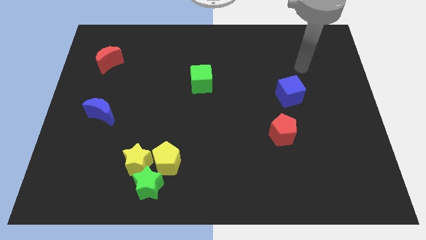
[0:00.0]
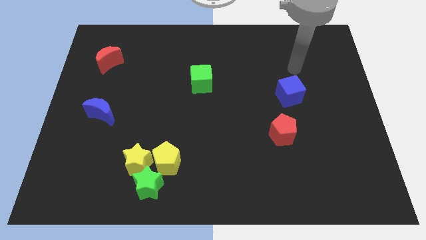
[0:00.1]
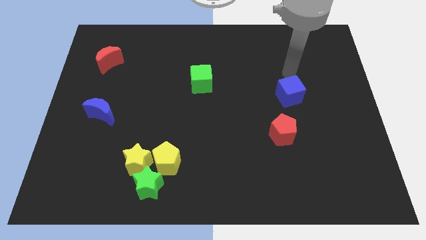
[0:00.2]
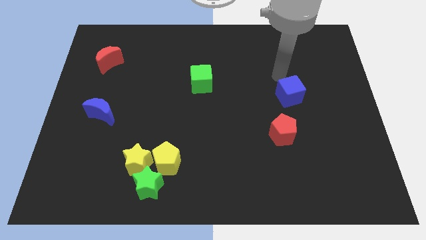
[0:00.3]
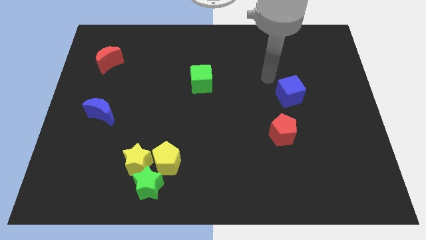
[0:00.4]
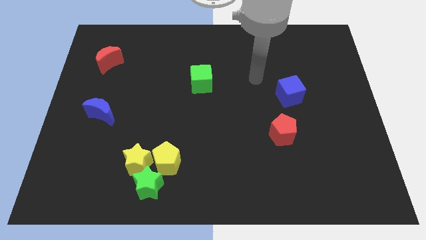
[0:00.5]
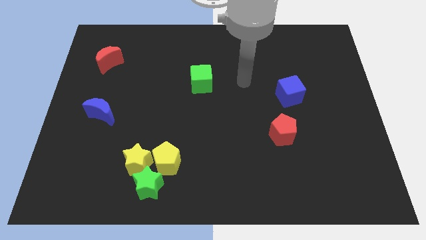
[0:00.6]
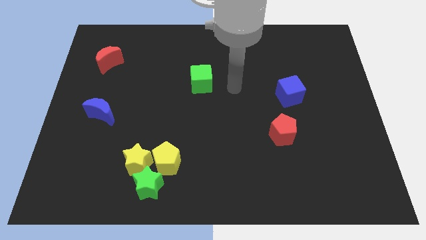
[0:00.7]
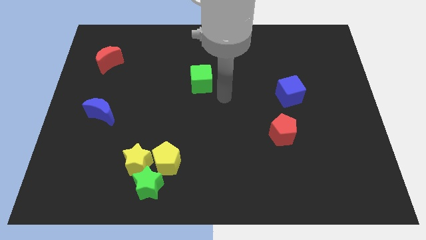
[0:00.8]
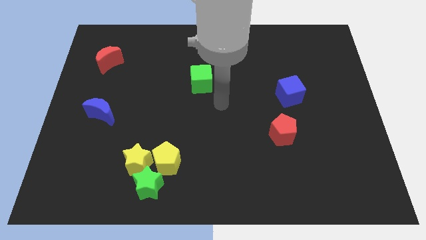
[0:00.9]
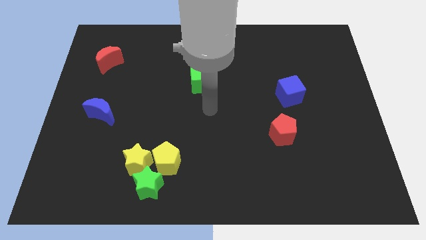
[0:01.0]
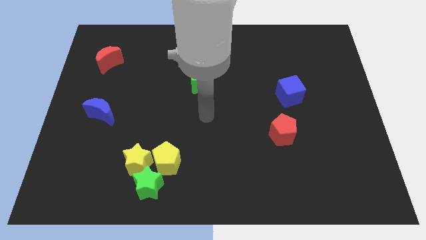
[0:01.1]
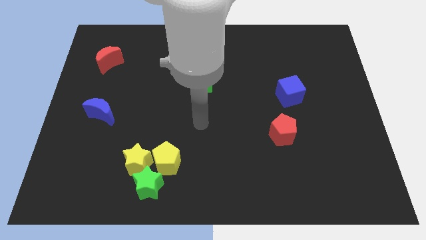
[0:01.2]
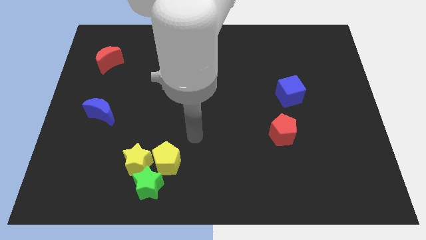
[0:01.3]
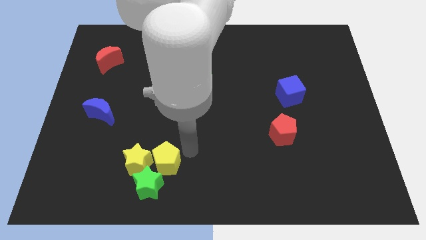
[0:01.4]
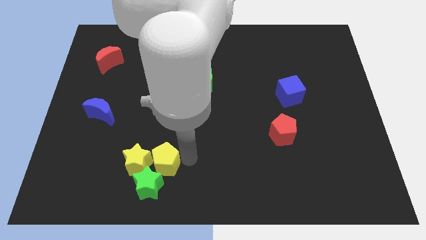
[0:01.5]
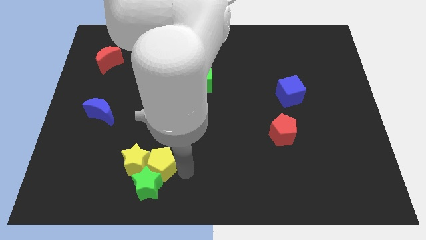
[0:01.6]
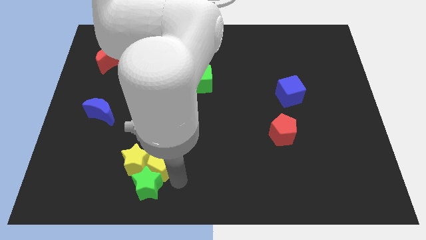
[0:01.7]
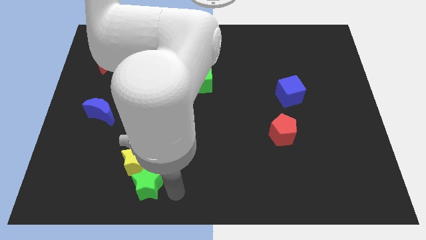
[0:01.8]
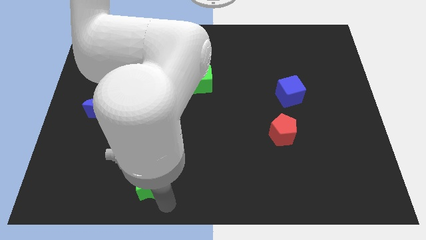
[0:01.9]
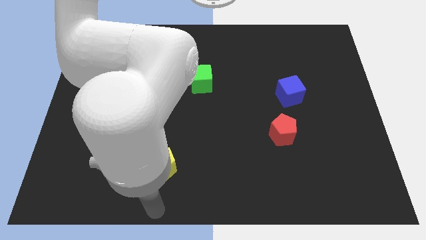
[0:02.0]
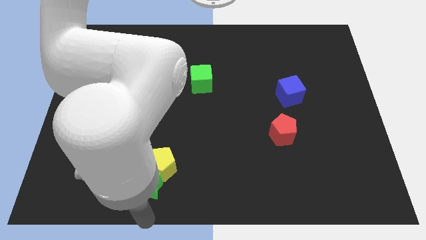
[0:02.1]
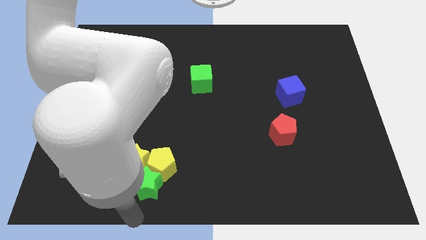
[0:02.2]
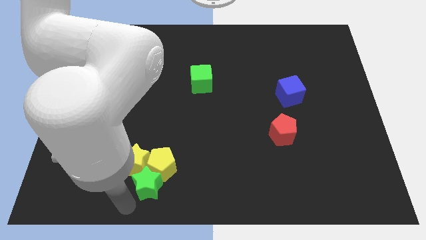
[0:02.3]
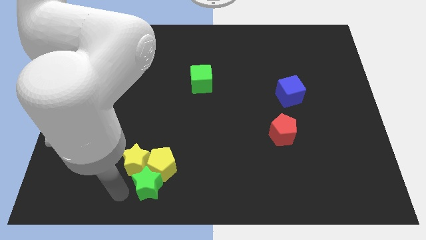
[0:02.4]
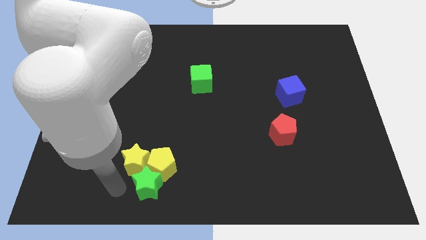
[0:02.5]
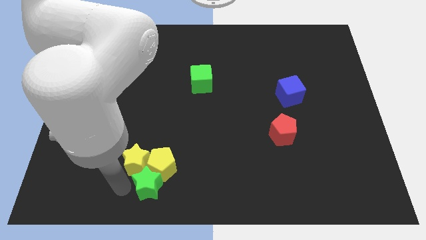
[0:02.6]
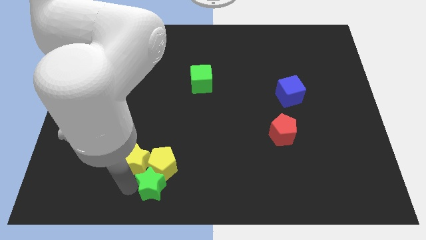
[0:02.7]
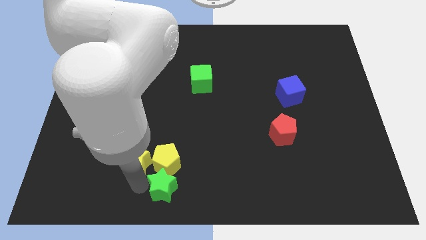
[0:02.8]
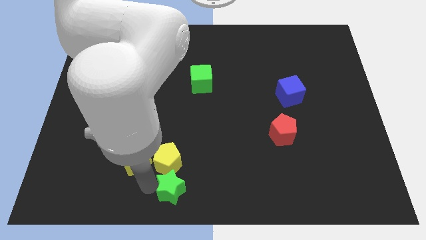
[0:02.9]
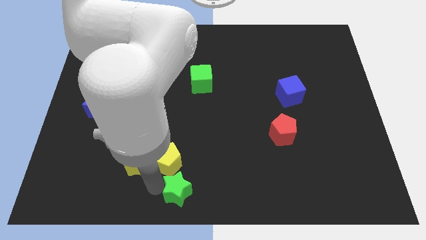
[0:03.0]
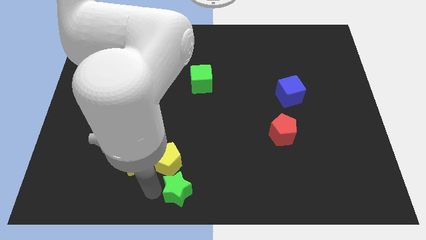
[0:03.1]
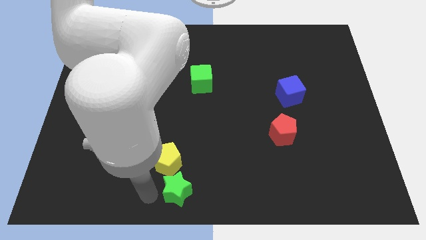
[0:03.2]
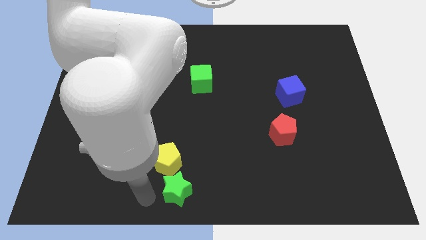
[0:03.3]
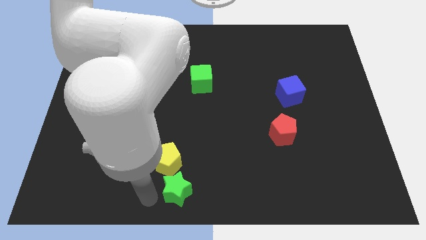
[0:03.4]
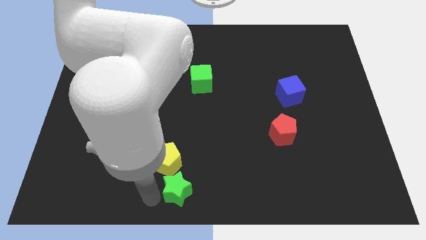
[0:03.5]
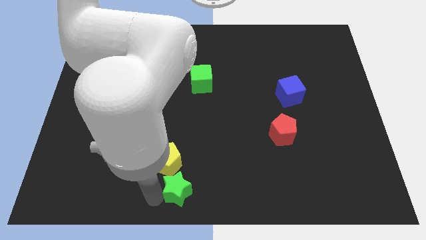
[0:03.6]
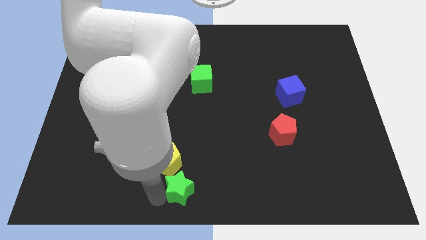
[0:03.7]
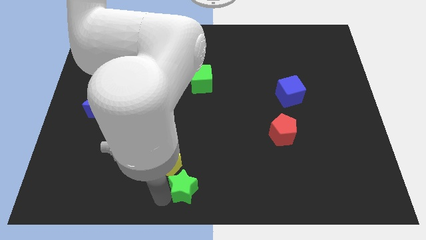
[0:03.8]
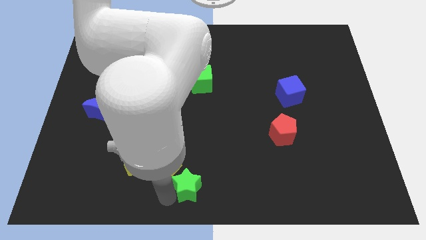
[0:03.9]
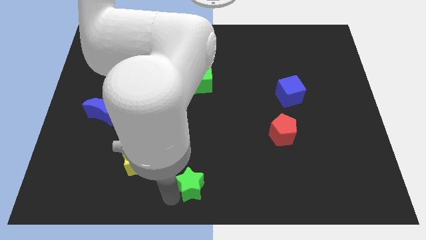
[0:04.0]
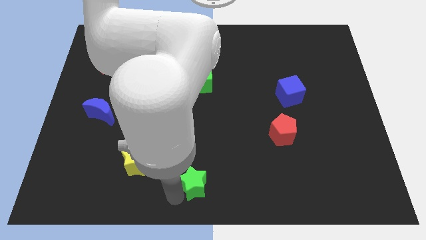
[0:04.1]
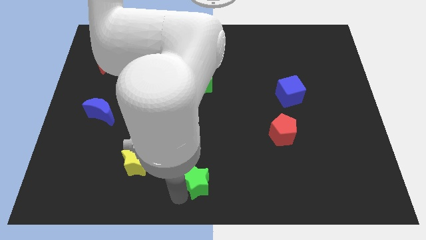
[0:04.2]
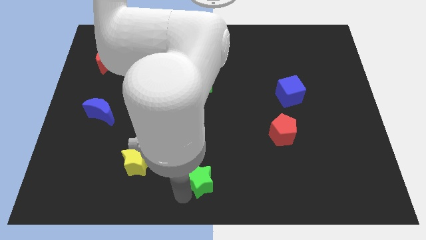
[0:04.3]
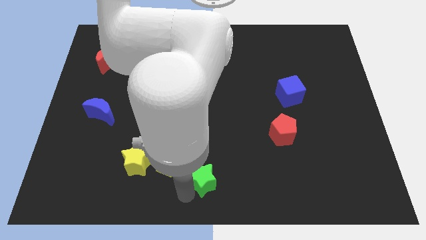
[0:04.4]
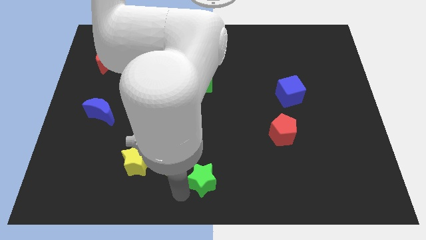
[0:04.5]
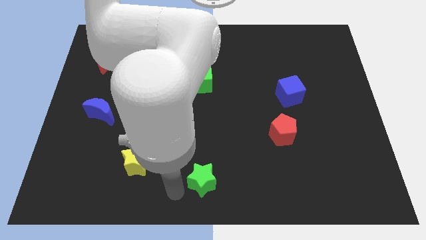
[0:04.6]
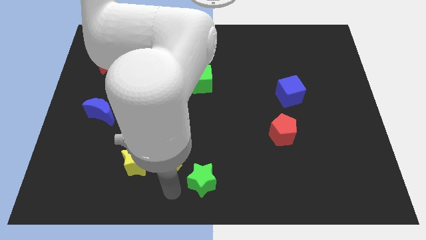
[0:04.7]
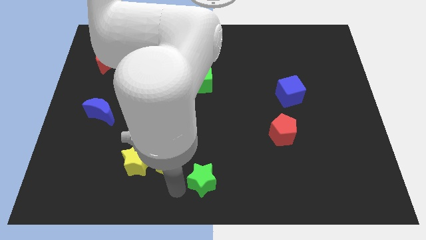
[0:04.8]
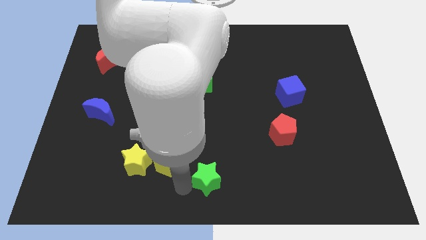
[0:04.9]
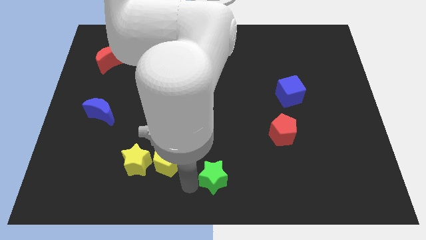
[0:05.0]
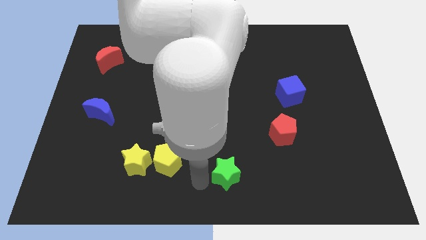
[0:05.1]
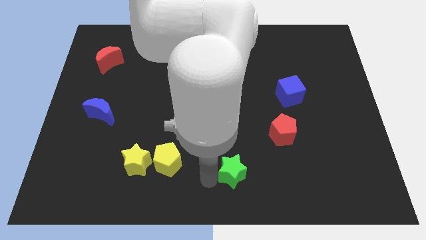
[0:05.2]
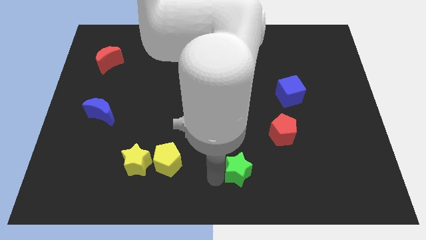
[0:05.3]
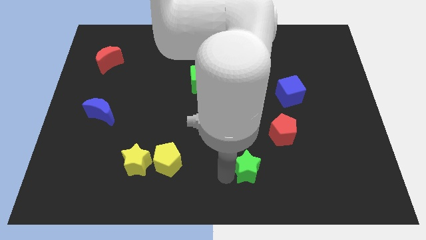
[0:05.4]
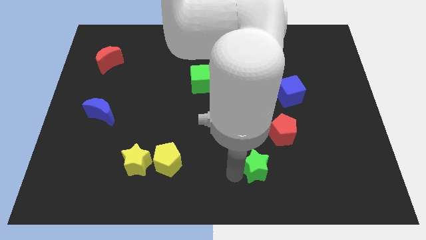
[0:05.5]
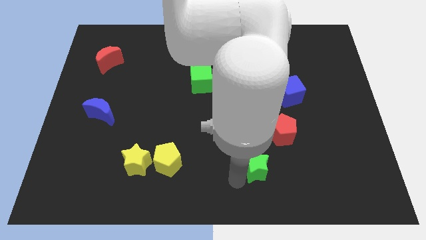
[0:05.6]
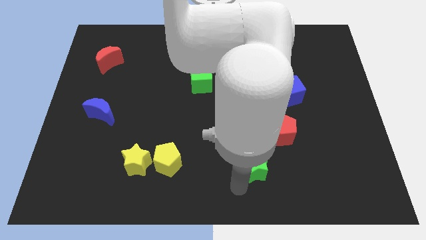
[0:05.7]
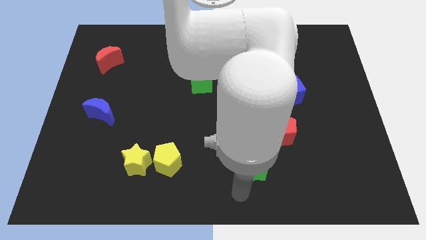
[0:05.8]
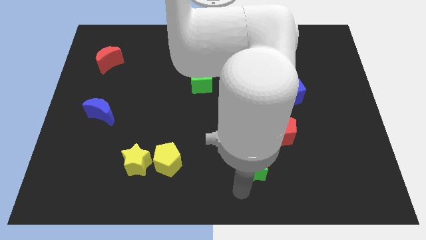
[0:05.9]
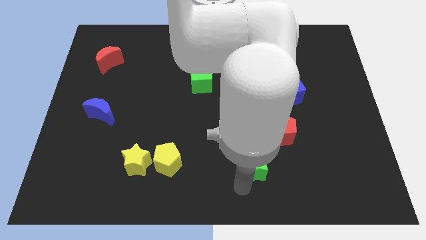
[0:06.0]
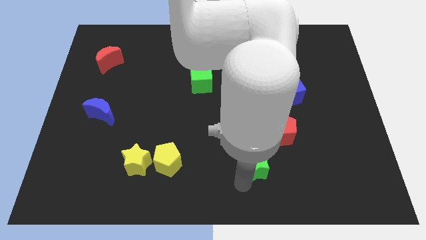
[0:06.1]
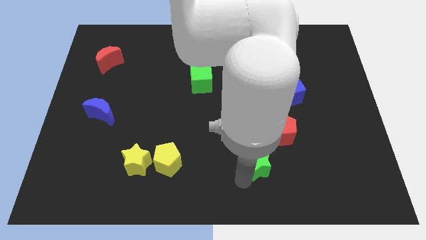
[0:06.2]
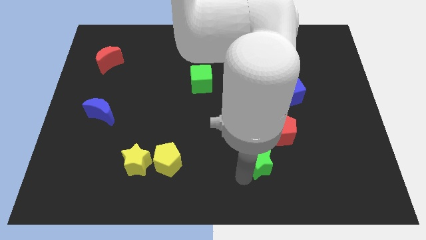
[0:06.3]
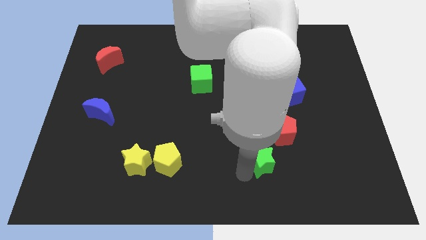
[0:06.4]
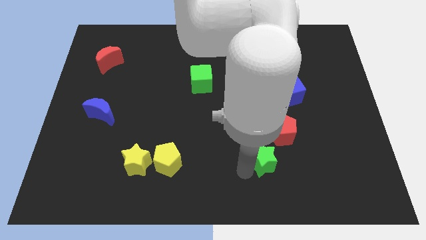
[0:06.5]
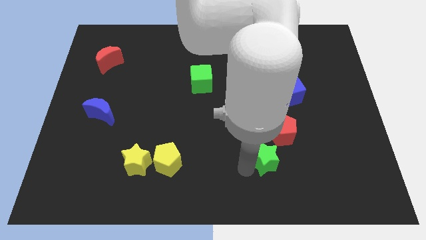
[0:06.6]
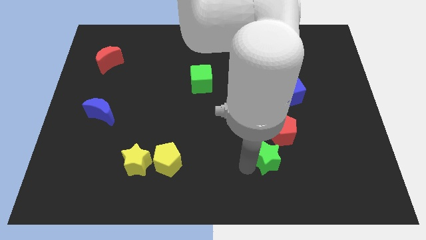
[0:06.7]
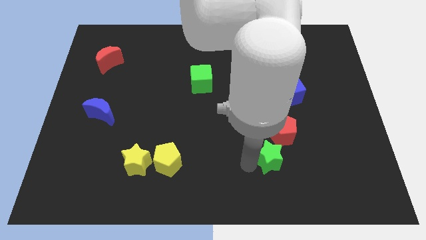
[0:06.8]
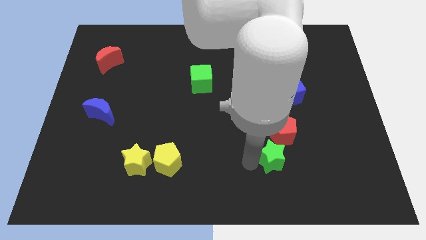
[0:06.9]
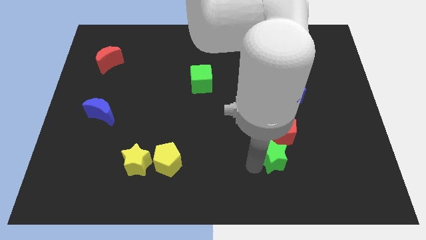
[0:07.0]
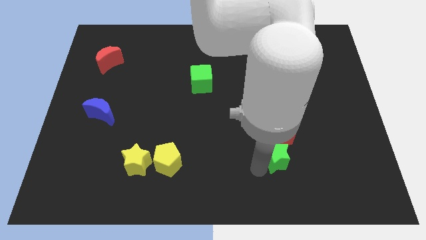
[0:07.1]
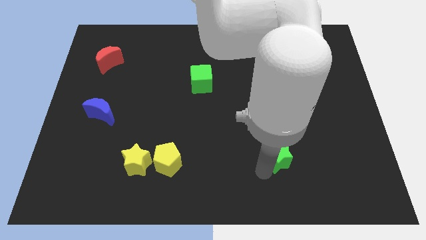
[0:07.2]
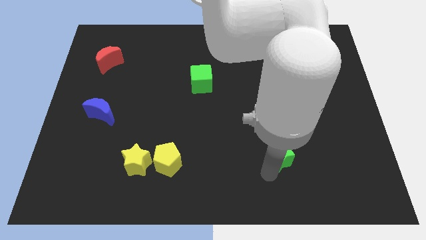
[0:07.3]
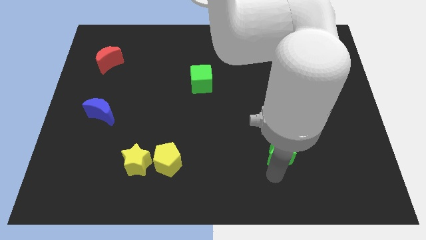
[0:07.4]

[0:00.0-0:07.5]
put the green star to the red pentagon

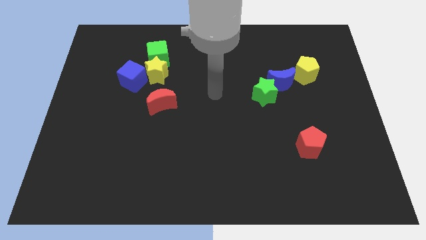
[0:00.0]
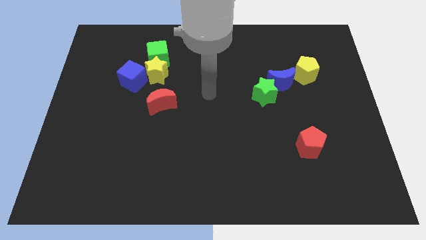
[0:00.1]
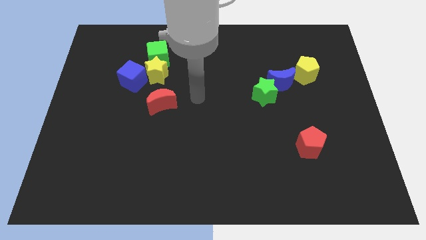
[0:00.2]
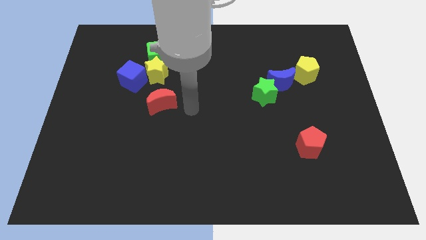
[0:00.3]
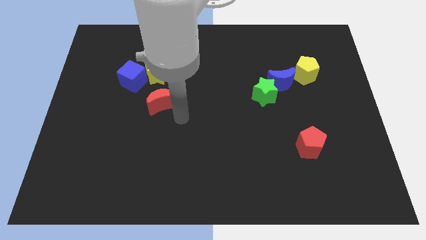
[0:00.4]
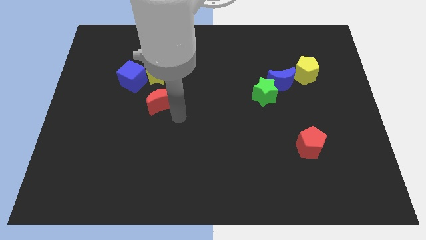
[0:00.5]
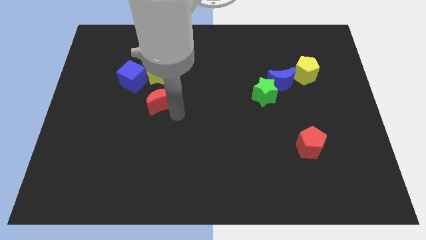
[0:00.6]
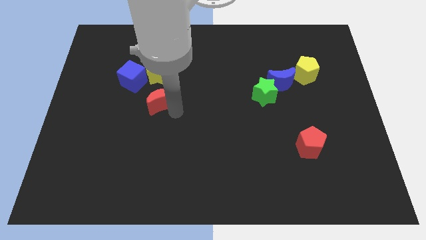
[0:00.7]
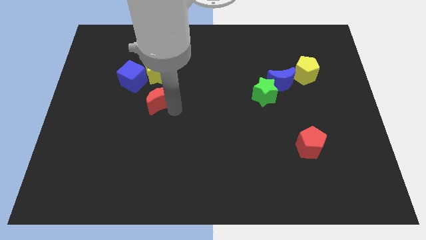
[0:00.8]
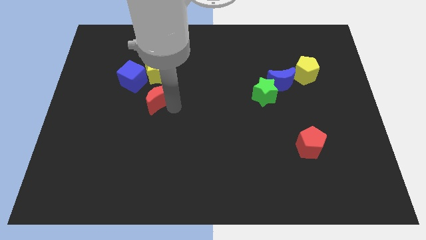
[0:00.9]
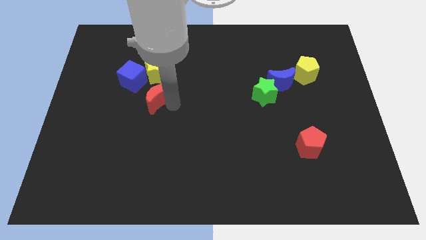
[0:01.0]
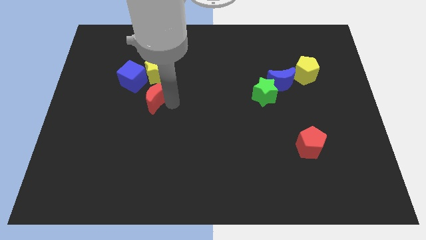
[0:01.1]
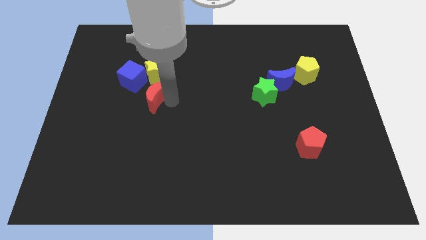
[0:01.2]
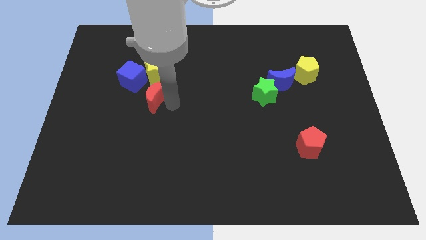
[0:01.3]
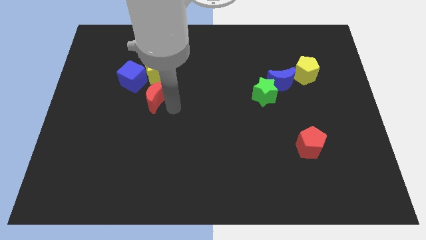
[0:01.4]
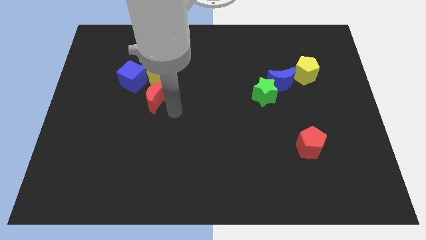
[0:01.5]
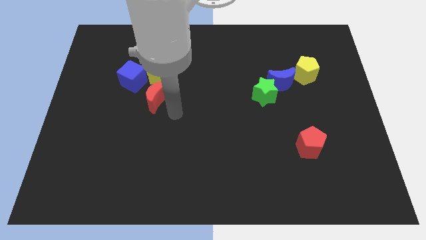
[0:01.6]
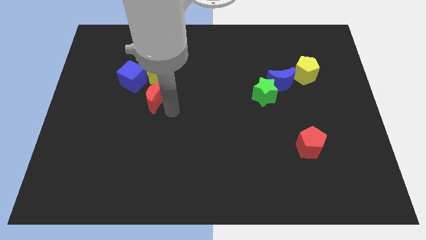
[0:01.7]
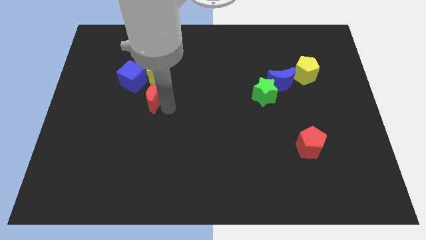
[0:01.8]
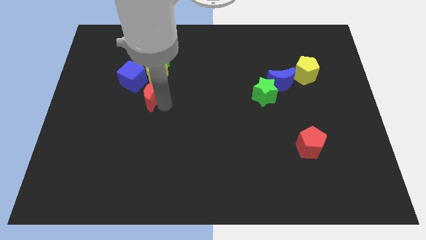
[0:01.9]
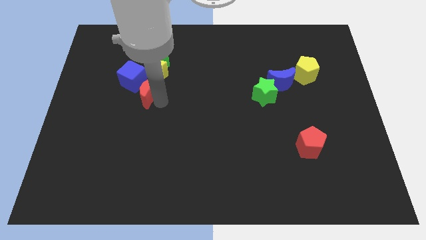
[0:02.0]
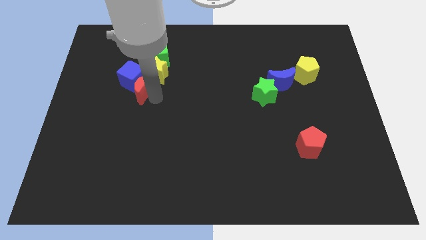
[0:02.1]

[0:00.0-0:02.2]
put the red moon towards the blue cube
